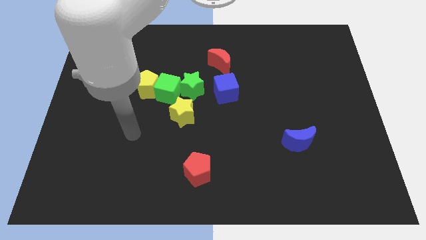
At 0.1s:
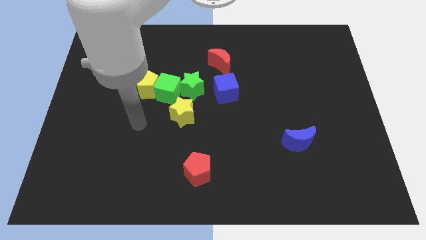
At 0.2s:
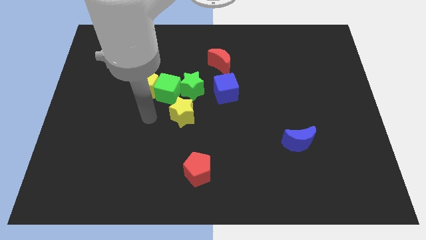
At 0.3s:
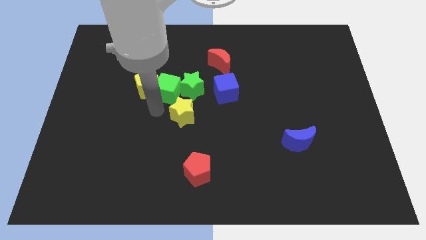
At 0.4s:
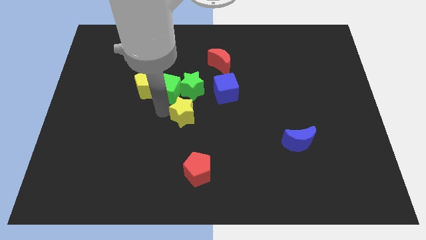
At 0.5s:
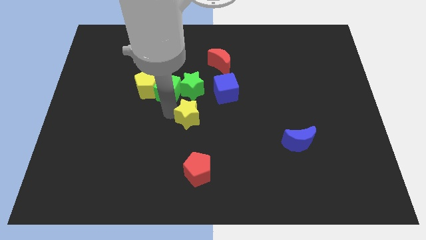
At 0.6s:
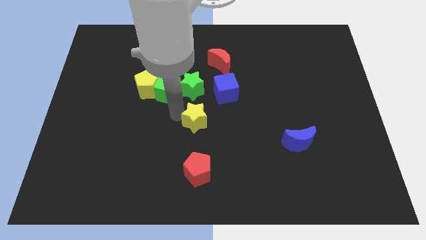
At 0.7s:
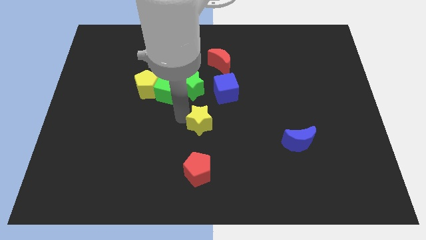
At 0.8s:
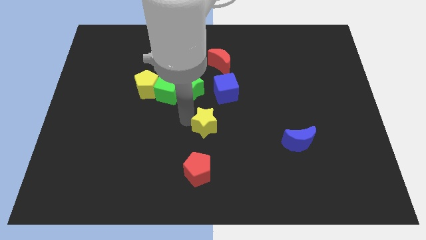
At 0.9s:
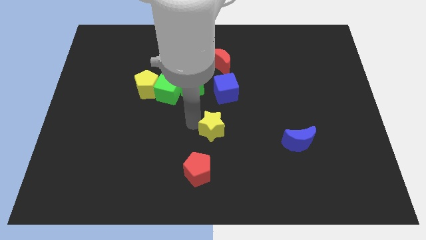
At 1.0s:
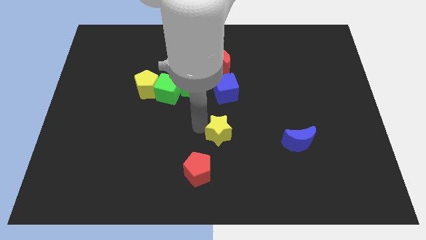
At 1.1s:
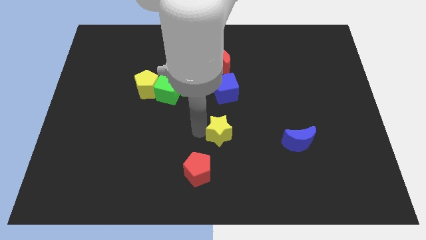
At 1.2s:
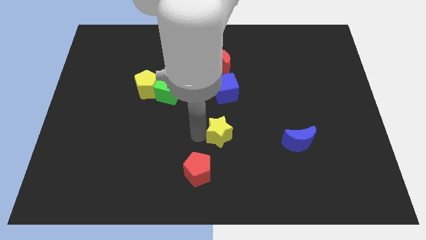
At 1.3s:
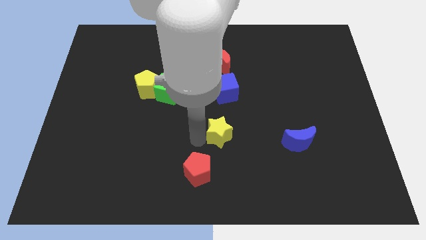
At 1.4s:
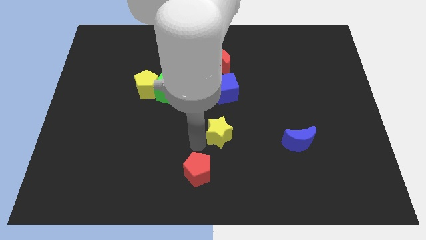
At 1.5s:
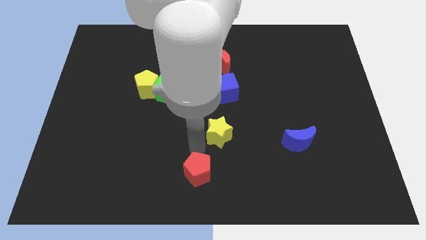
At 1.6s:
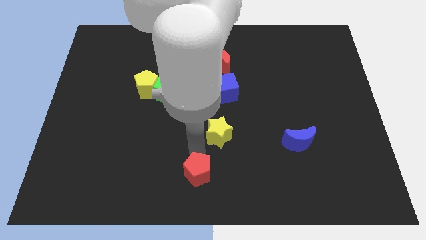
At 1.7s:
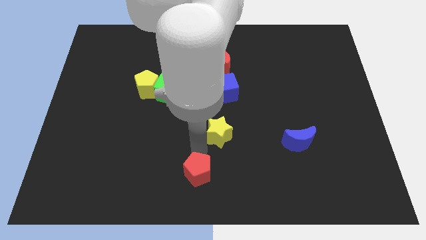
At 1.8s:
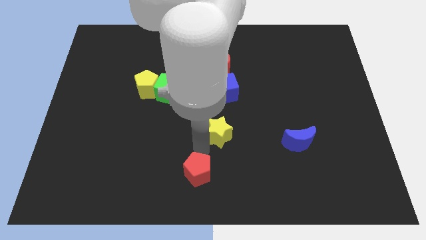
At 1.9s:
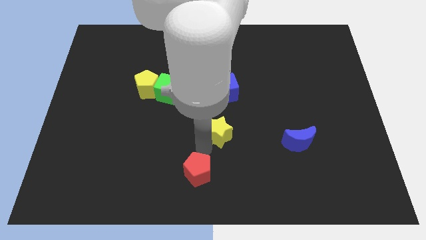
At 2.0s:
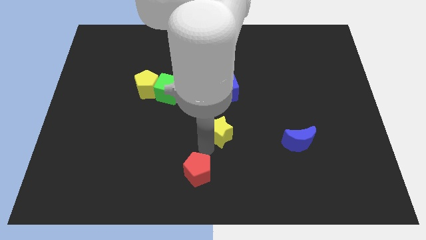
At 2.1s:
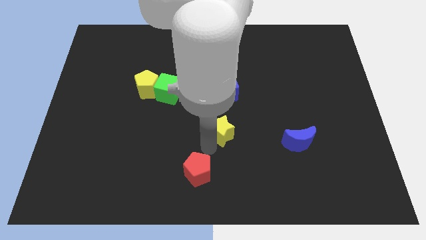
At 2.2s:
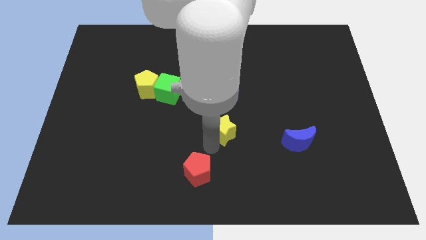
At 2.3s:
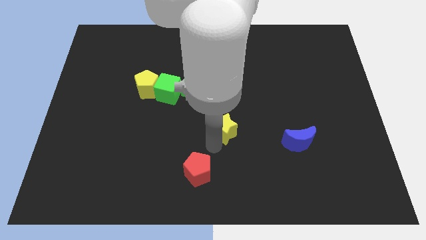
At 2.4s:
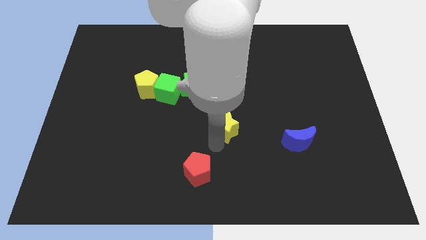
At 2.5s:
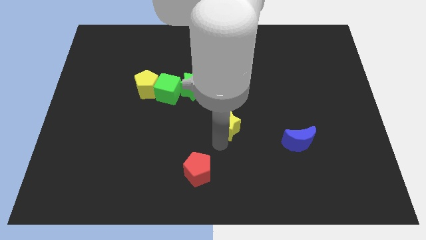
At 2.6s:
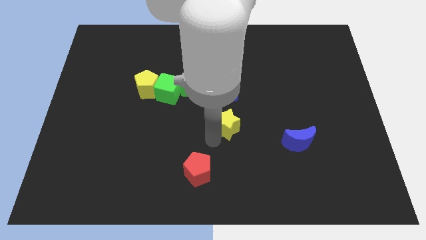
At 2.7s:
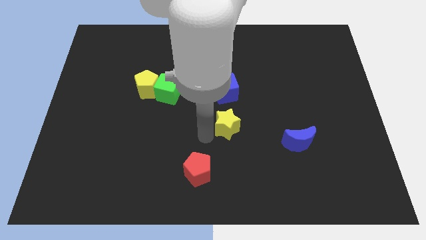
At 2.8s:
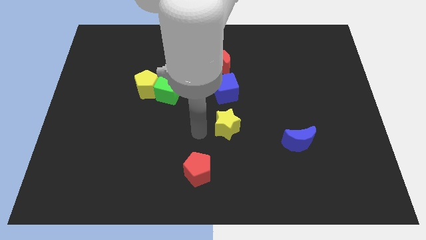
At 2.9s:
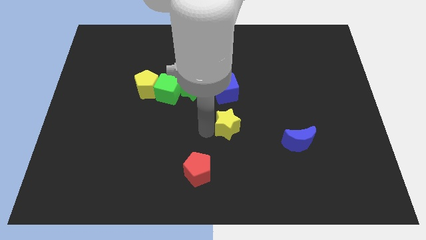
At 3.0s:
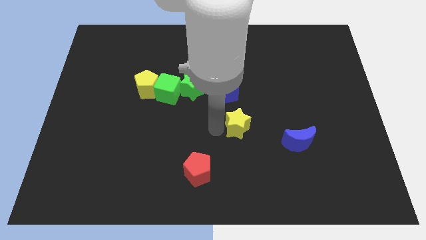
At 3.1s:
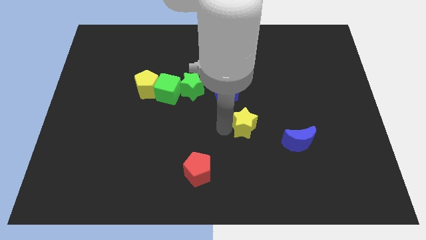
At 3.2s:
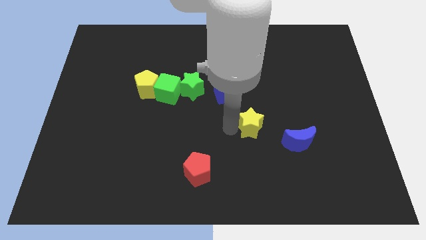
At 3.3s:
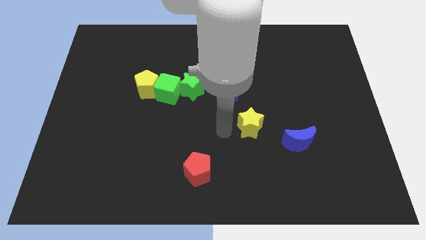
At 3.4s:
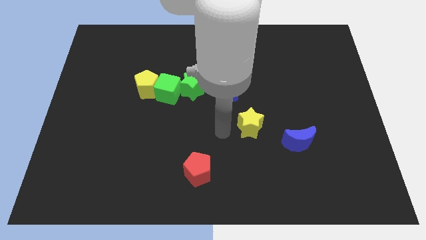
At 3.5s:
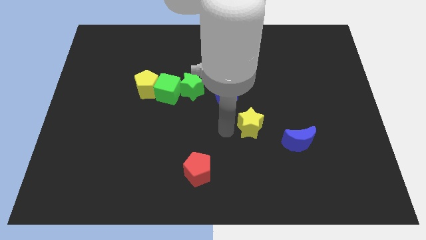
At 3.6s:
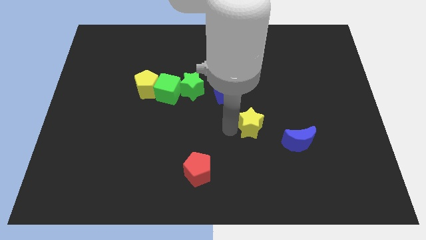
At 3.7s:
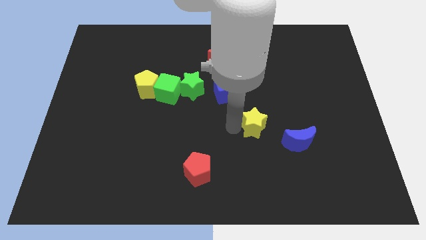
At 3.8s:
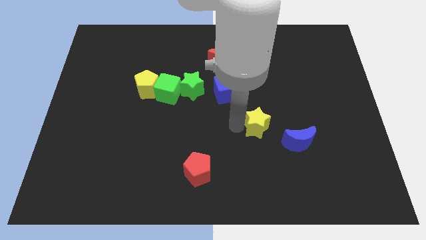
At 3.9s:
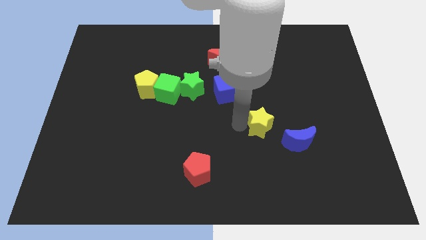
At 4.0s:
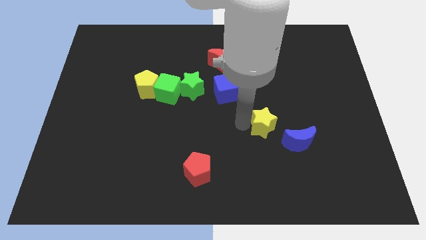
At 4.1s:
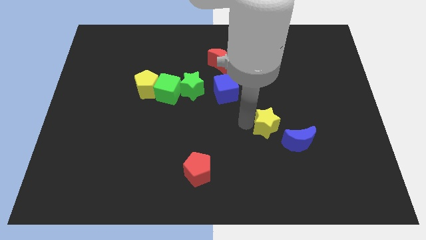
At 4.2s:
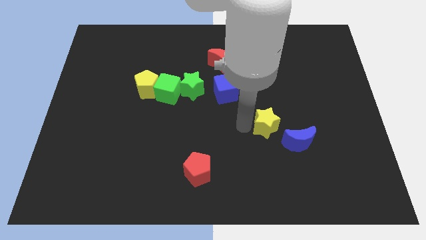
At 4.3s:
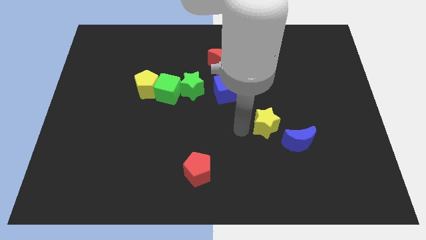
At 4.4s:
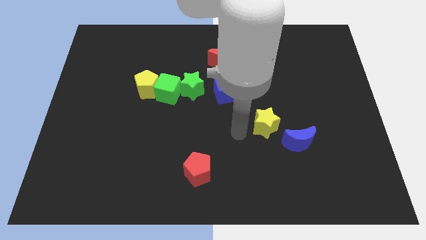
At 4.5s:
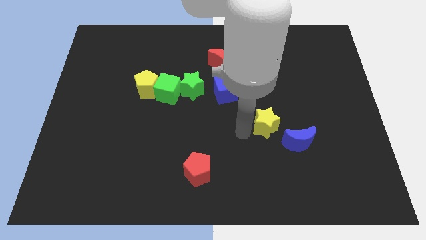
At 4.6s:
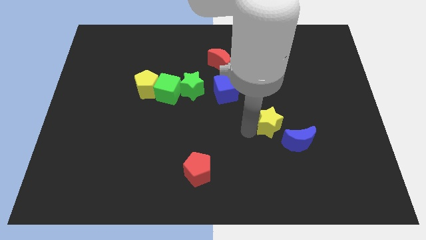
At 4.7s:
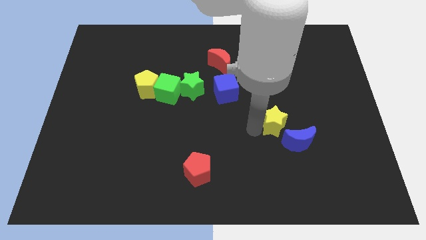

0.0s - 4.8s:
move the yellow star to the right

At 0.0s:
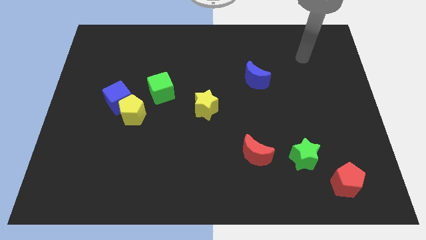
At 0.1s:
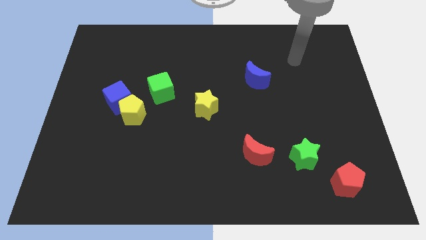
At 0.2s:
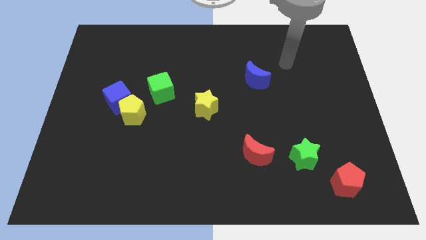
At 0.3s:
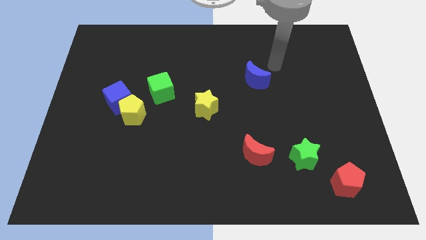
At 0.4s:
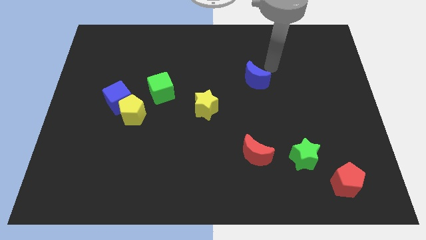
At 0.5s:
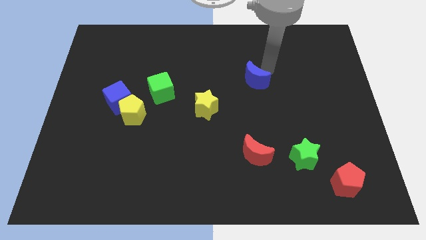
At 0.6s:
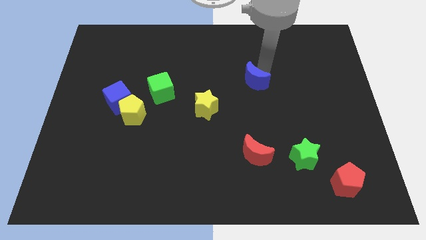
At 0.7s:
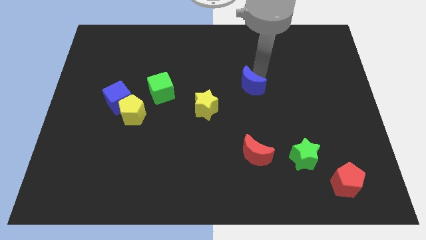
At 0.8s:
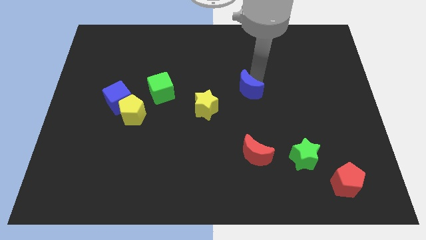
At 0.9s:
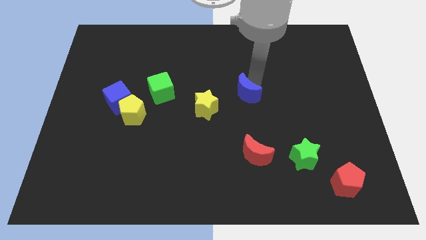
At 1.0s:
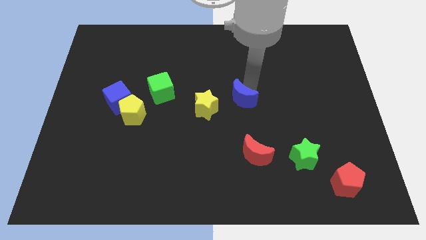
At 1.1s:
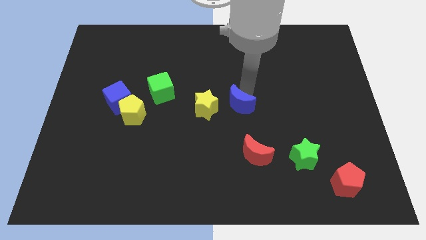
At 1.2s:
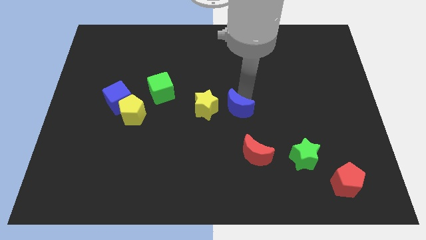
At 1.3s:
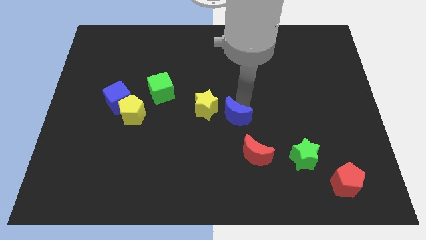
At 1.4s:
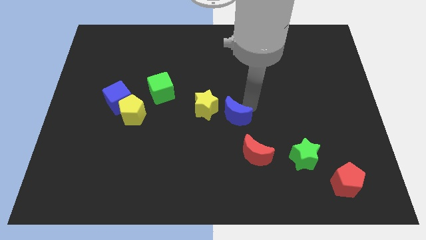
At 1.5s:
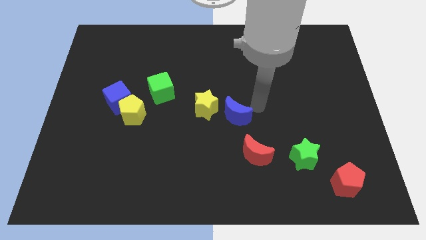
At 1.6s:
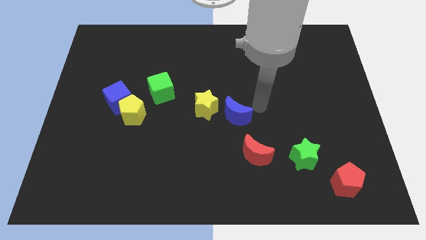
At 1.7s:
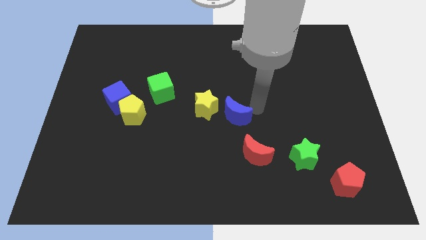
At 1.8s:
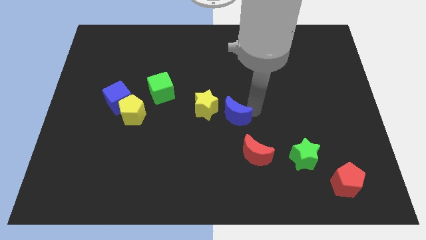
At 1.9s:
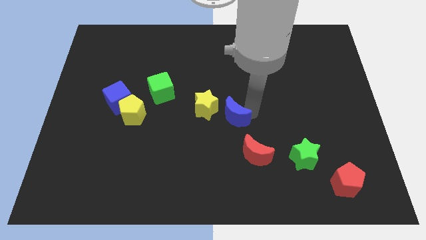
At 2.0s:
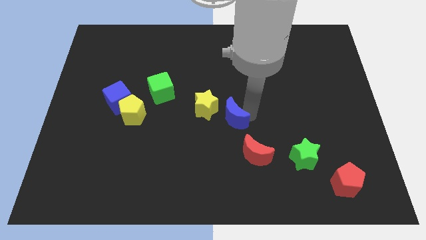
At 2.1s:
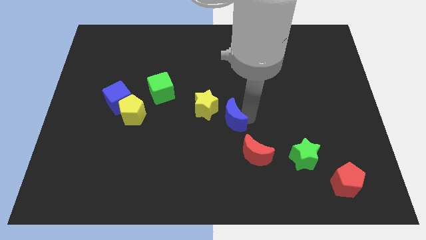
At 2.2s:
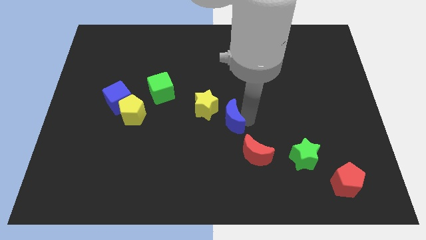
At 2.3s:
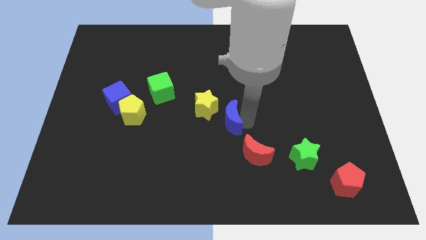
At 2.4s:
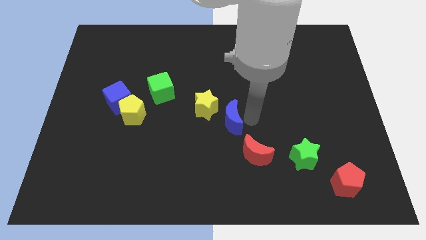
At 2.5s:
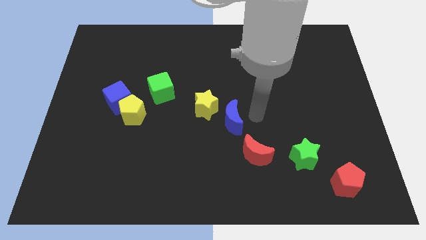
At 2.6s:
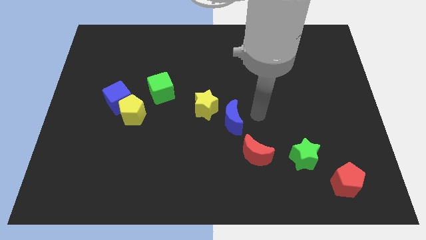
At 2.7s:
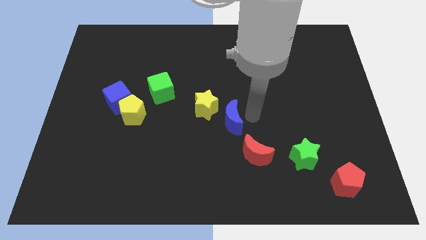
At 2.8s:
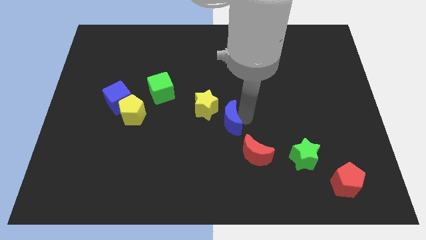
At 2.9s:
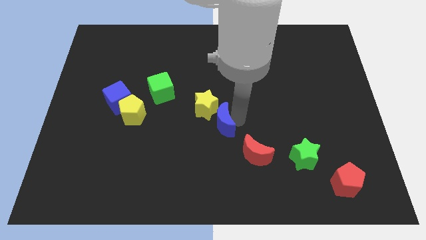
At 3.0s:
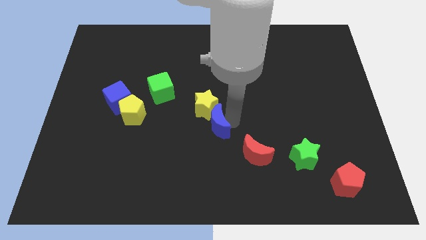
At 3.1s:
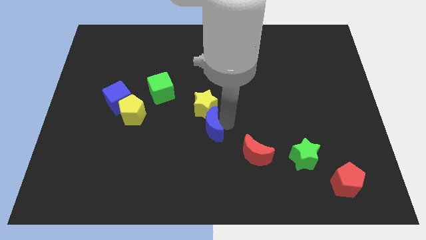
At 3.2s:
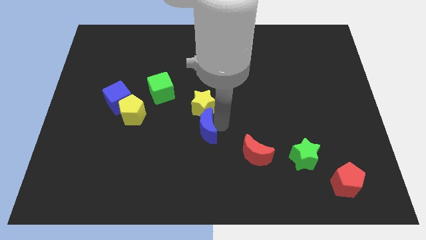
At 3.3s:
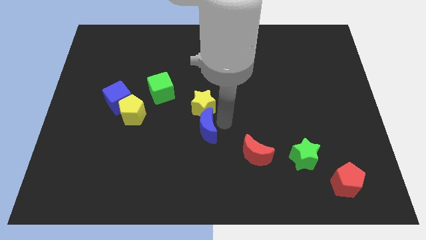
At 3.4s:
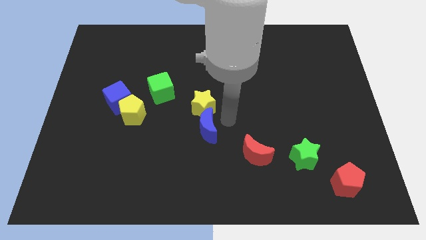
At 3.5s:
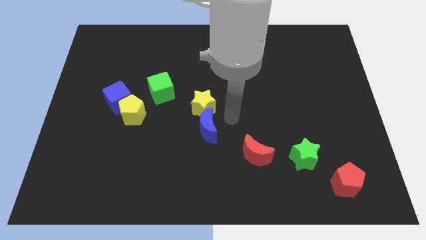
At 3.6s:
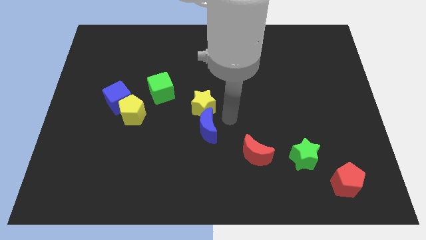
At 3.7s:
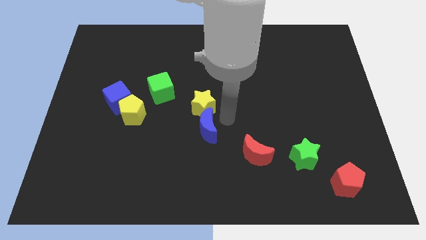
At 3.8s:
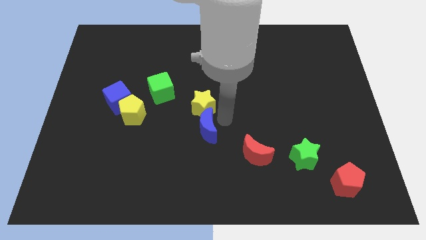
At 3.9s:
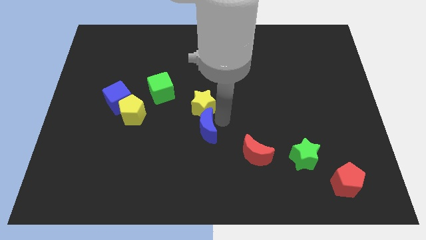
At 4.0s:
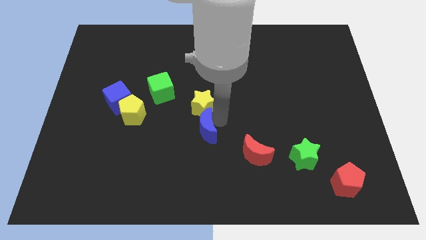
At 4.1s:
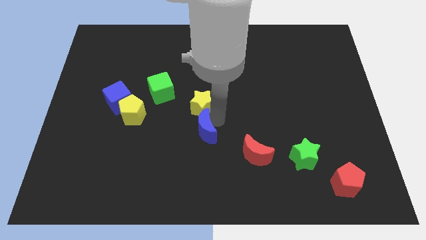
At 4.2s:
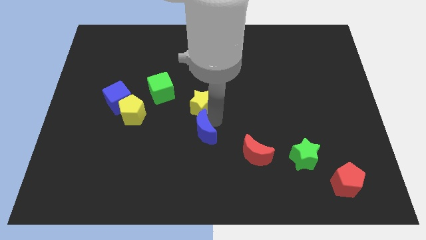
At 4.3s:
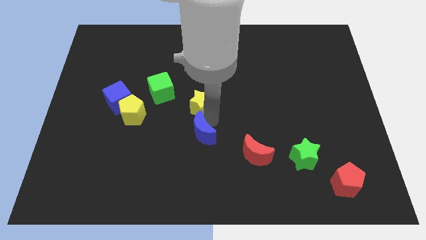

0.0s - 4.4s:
move the blue moon down and left
